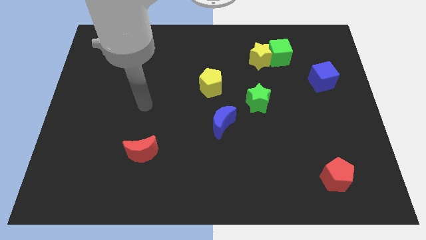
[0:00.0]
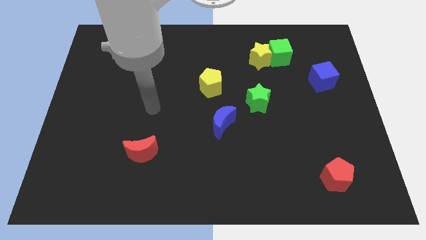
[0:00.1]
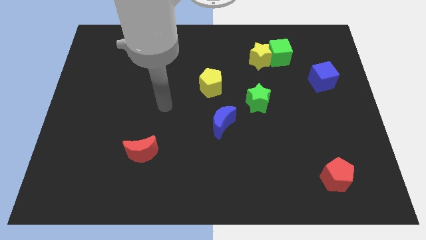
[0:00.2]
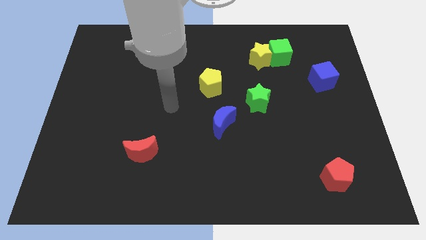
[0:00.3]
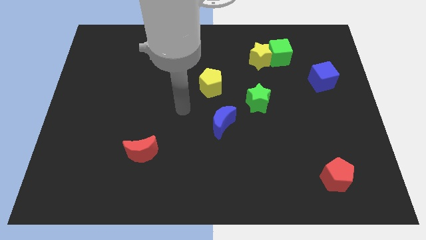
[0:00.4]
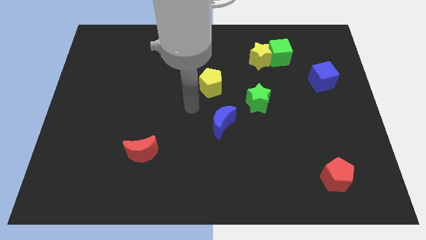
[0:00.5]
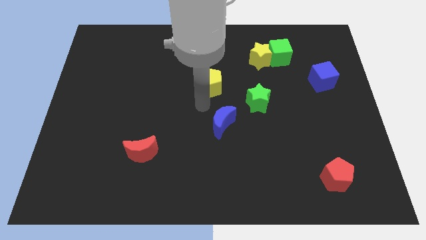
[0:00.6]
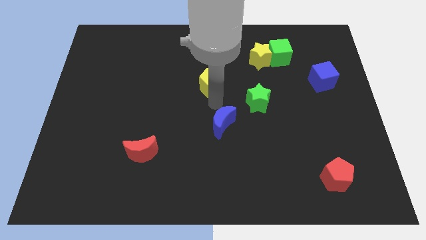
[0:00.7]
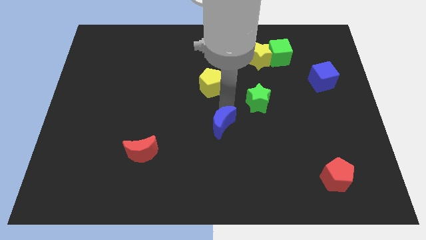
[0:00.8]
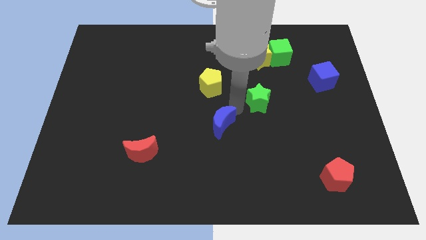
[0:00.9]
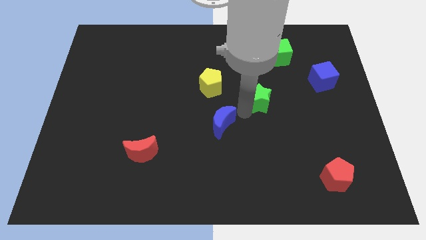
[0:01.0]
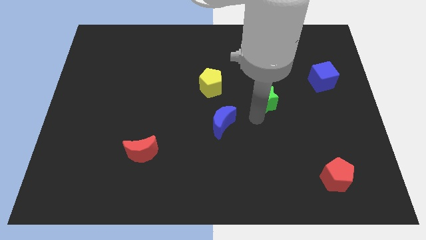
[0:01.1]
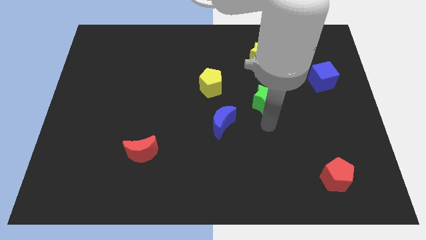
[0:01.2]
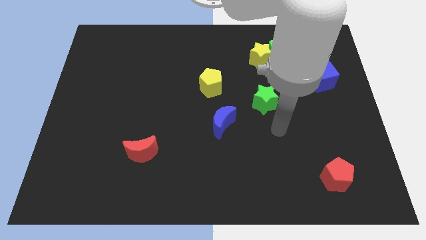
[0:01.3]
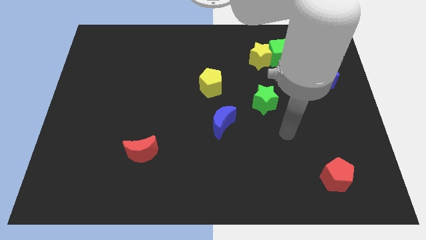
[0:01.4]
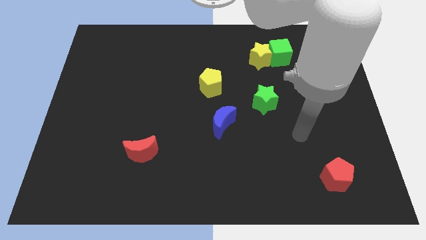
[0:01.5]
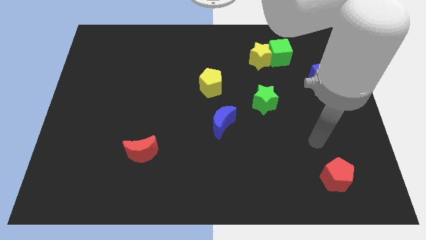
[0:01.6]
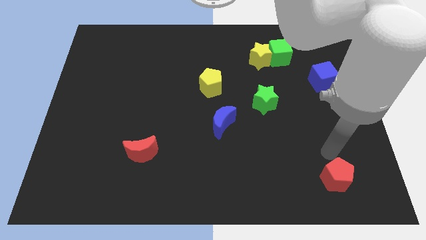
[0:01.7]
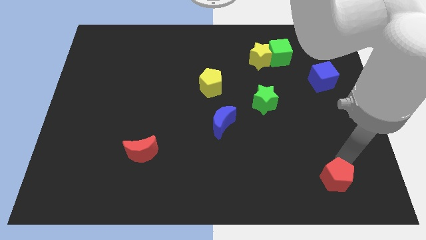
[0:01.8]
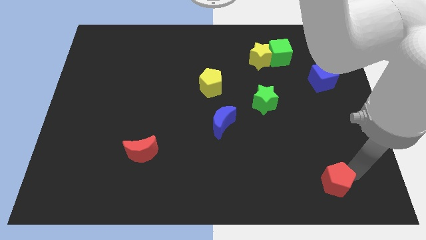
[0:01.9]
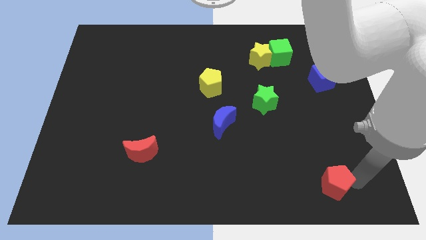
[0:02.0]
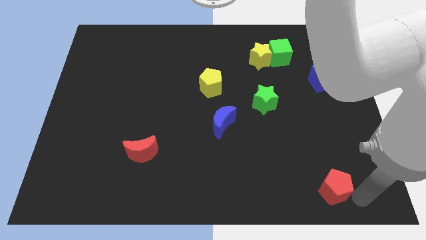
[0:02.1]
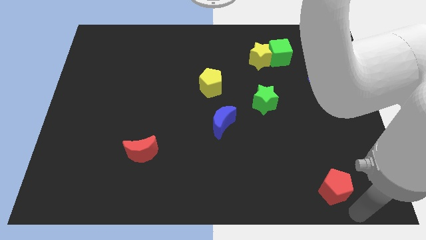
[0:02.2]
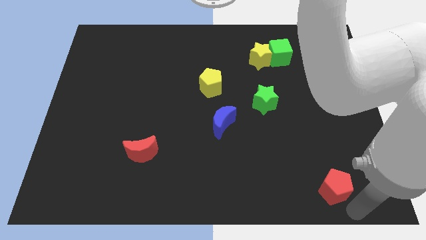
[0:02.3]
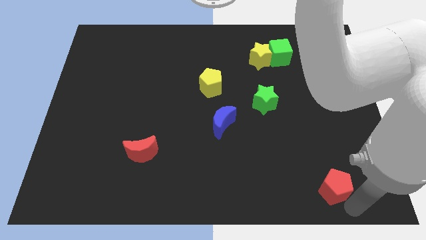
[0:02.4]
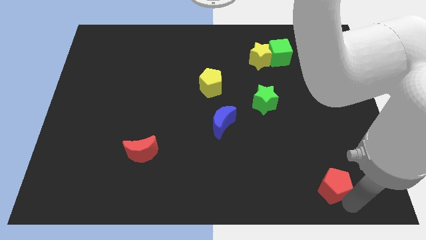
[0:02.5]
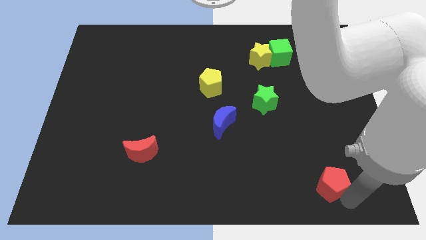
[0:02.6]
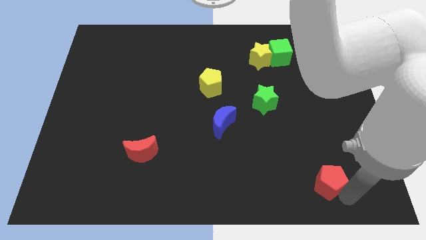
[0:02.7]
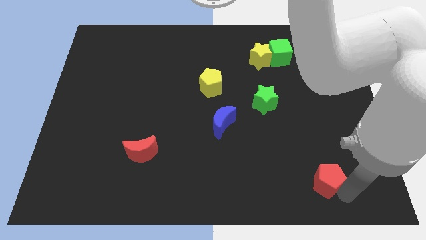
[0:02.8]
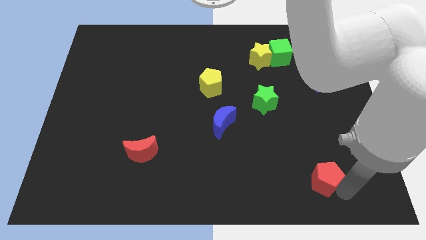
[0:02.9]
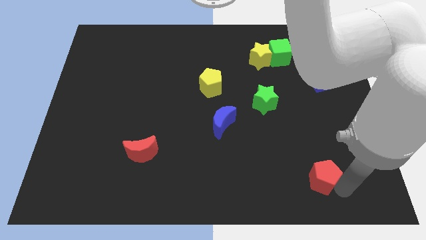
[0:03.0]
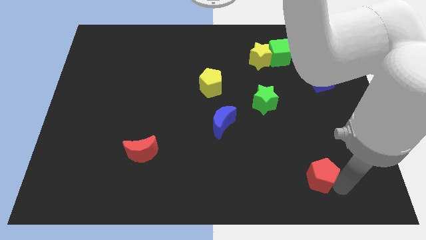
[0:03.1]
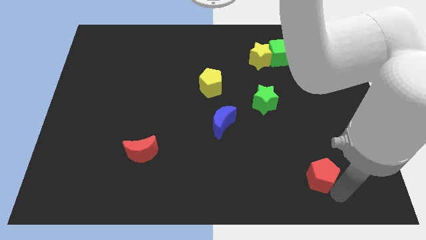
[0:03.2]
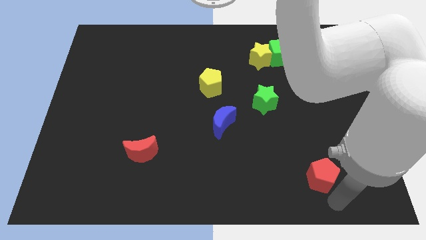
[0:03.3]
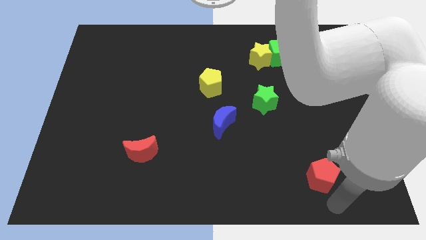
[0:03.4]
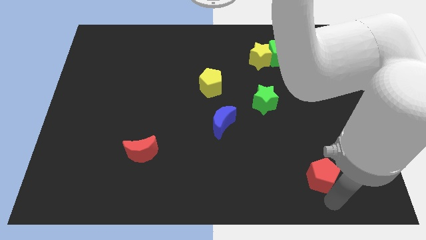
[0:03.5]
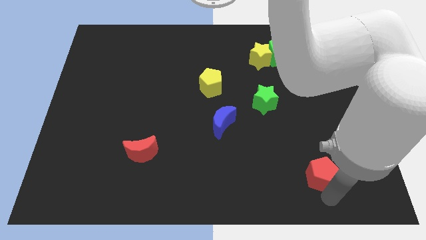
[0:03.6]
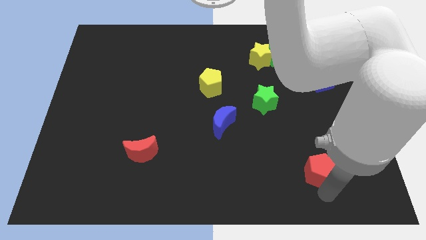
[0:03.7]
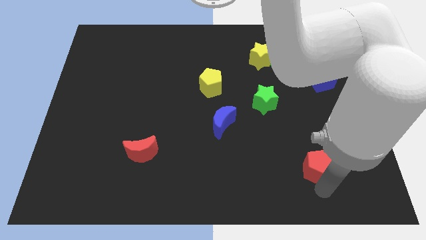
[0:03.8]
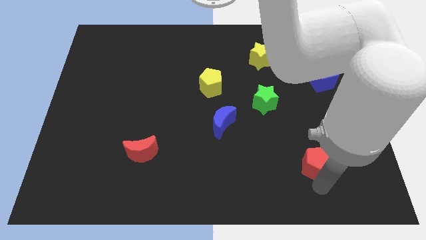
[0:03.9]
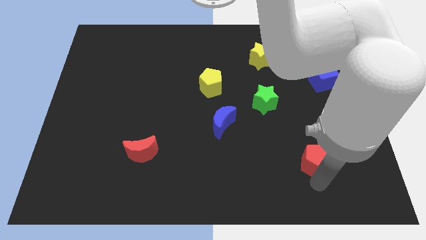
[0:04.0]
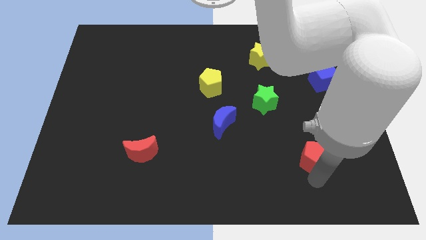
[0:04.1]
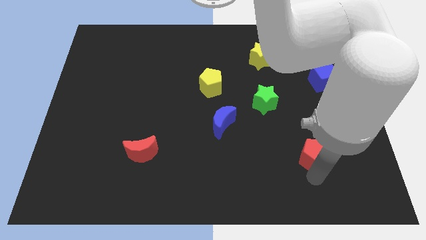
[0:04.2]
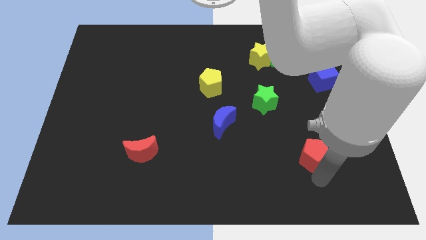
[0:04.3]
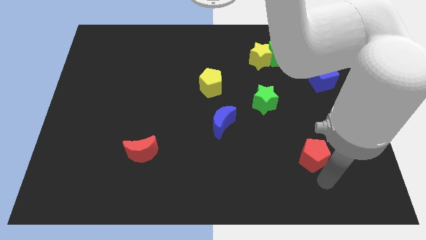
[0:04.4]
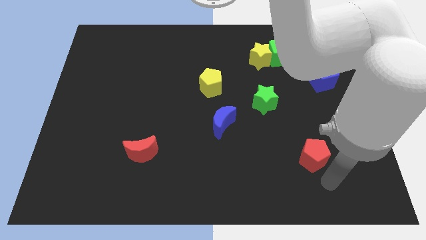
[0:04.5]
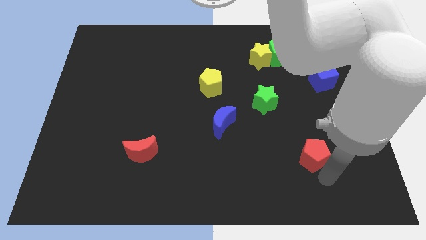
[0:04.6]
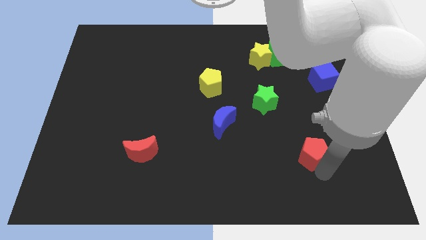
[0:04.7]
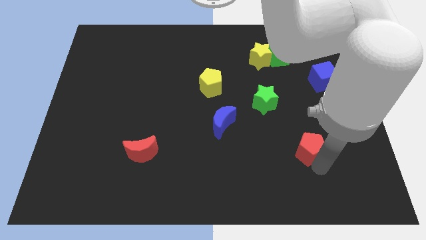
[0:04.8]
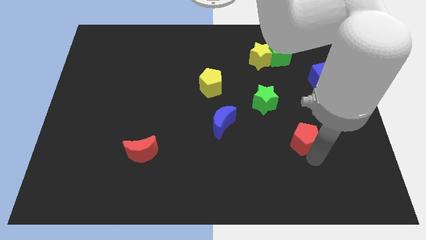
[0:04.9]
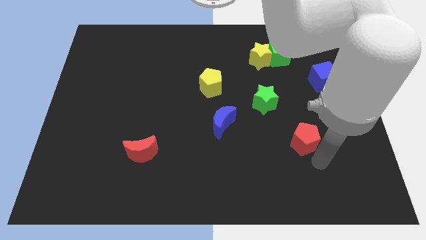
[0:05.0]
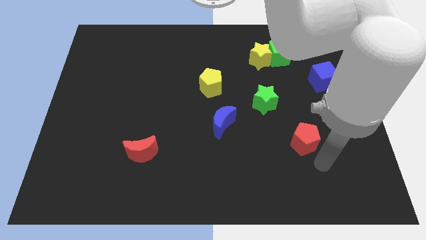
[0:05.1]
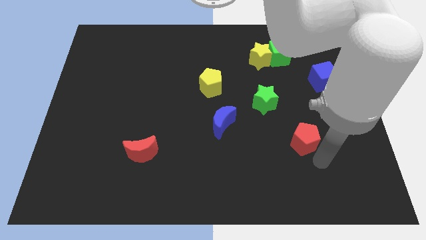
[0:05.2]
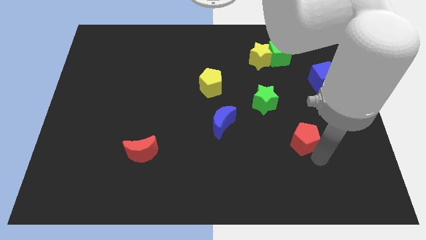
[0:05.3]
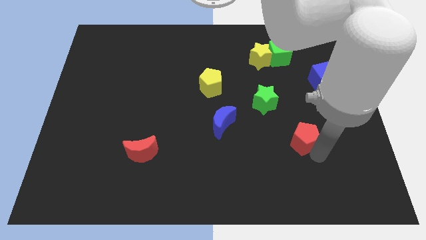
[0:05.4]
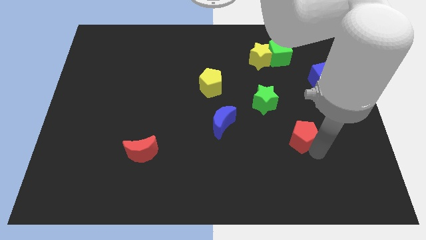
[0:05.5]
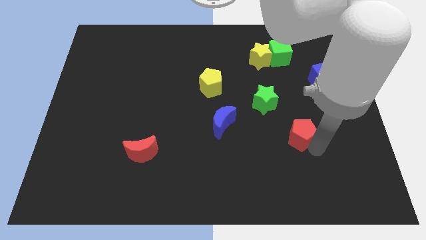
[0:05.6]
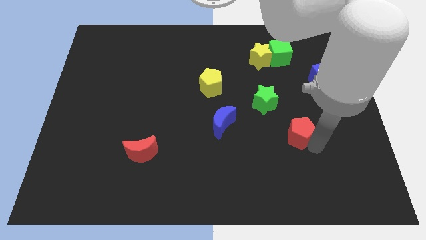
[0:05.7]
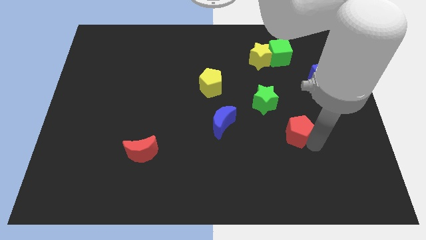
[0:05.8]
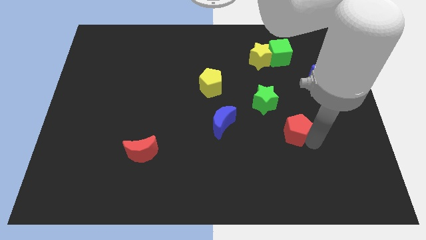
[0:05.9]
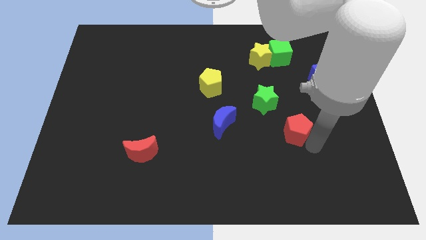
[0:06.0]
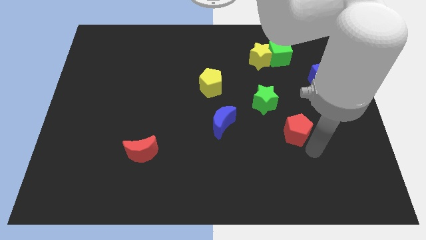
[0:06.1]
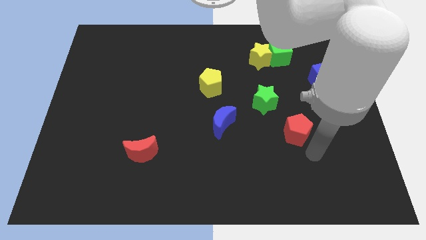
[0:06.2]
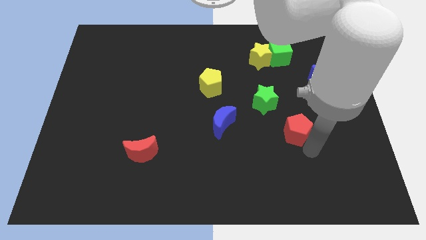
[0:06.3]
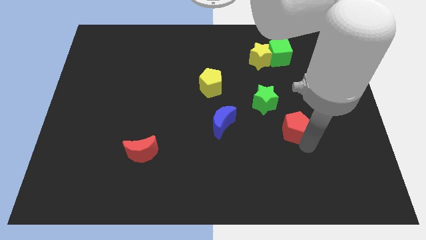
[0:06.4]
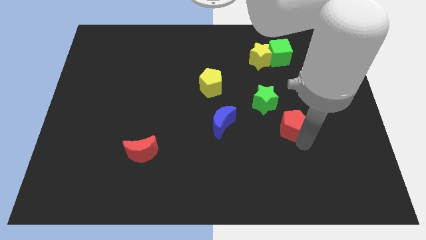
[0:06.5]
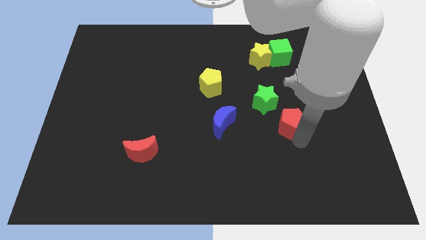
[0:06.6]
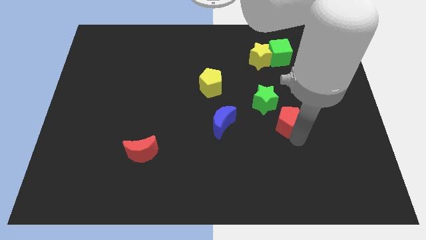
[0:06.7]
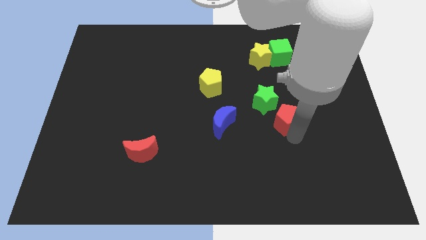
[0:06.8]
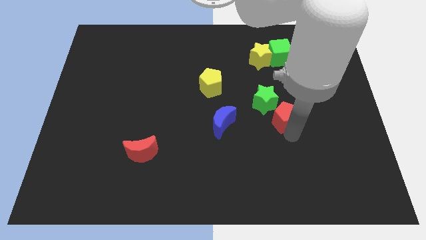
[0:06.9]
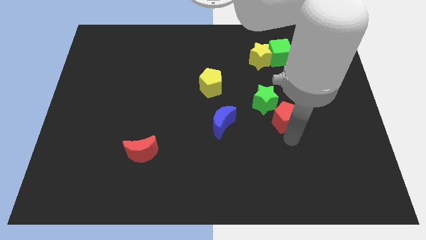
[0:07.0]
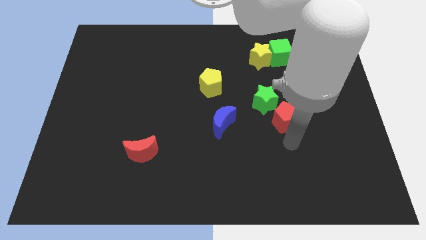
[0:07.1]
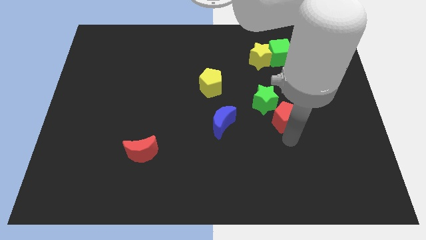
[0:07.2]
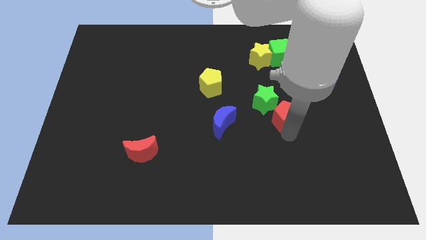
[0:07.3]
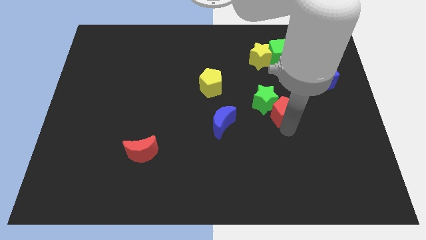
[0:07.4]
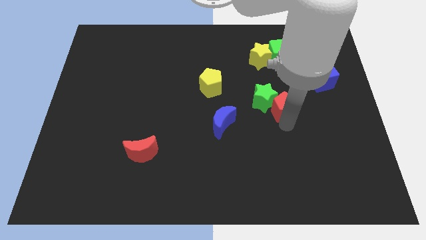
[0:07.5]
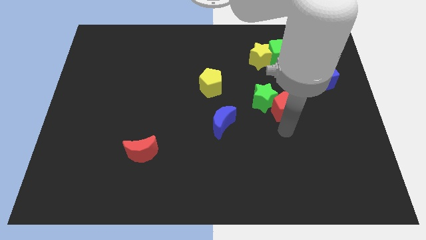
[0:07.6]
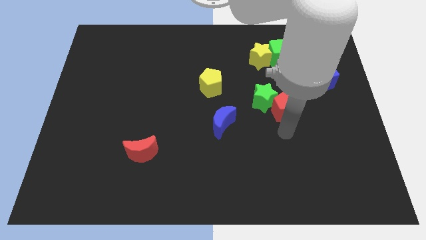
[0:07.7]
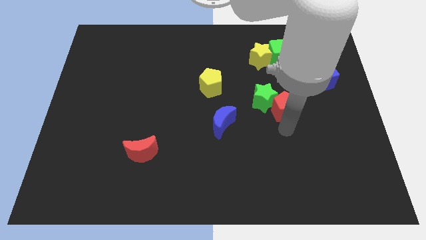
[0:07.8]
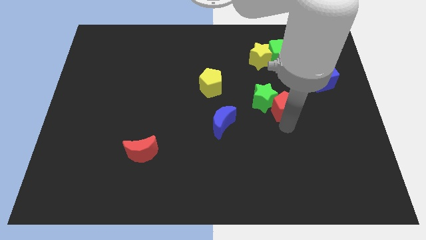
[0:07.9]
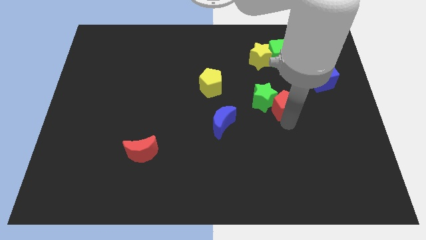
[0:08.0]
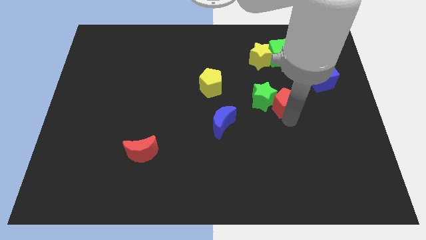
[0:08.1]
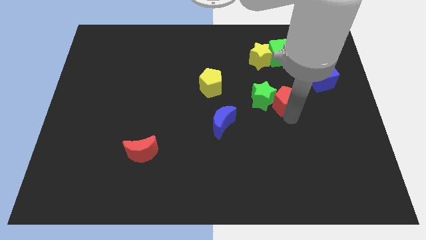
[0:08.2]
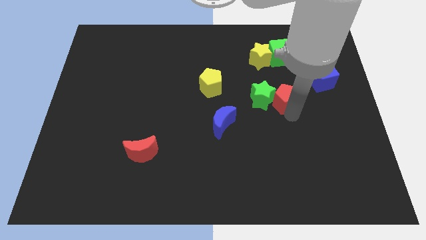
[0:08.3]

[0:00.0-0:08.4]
move the red pentagon diagonally up and to the right of the green star
